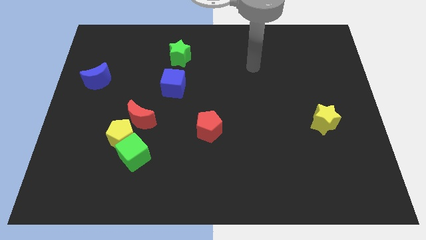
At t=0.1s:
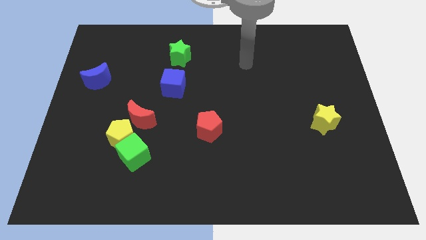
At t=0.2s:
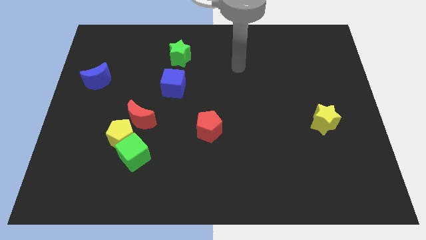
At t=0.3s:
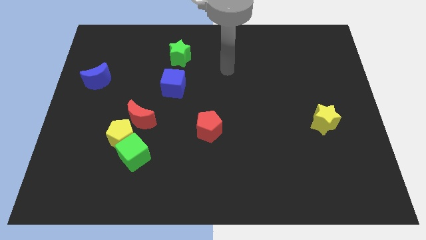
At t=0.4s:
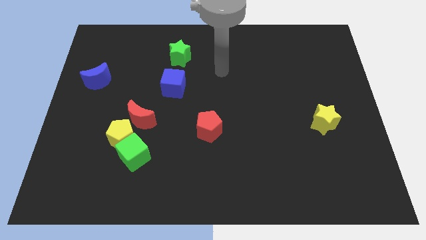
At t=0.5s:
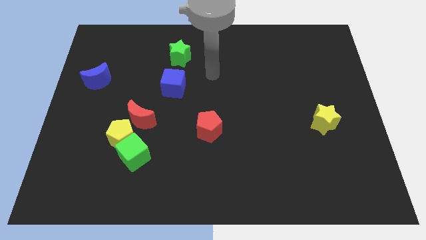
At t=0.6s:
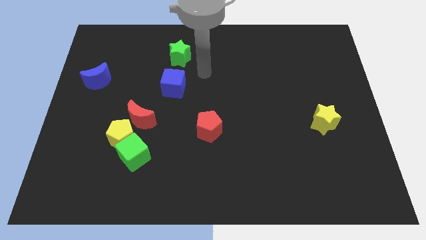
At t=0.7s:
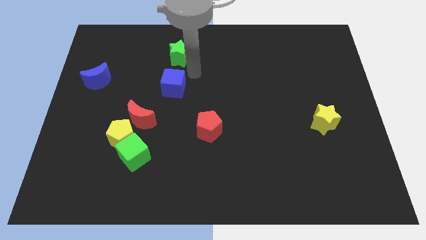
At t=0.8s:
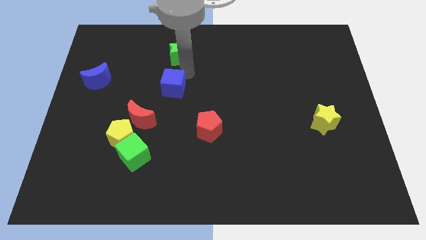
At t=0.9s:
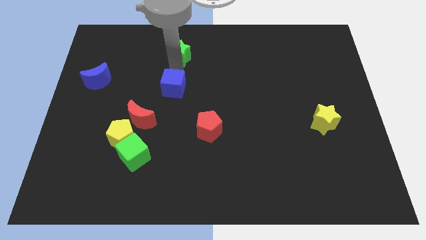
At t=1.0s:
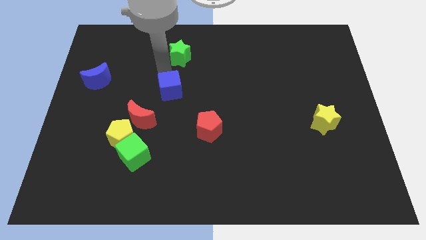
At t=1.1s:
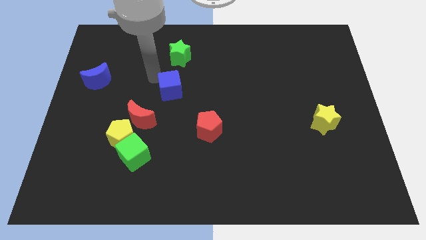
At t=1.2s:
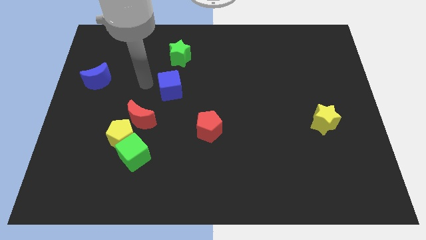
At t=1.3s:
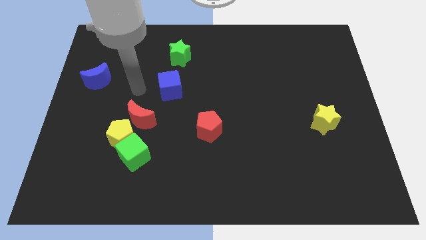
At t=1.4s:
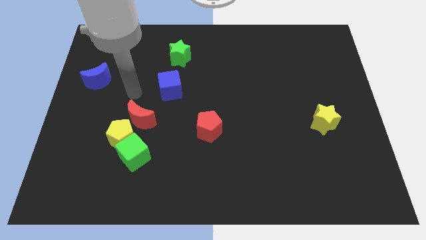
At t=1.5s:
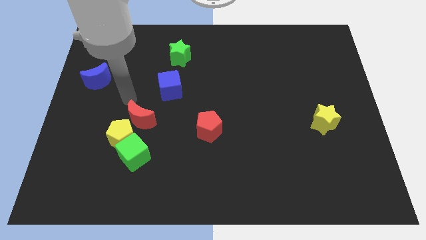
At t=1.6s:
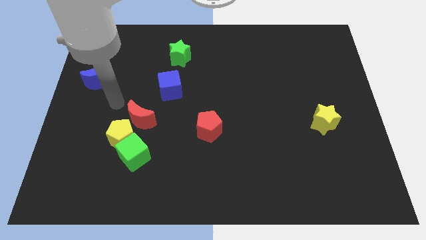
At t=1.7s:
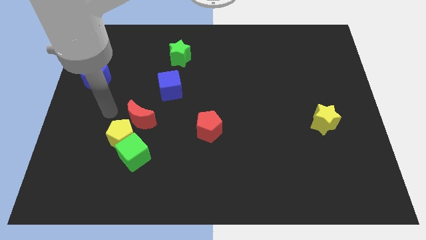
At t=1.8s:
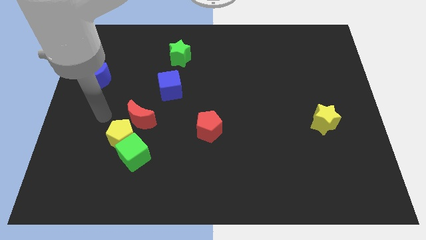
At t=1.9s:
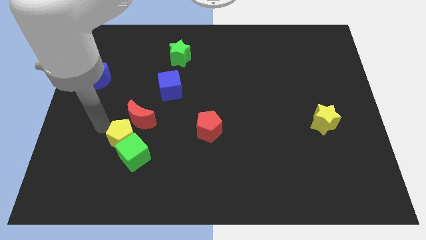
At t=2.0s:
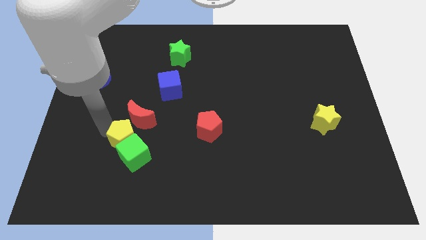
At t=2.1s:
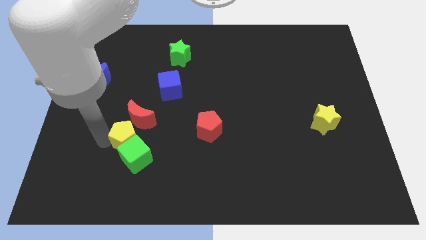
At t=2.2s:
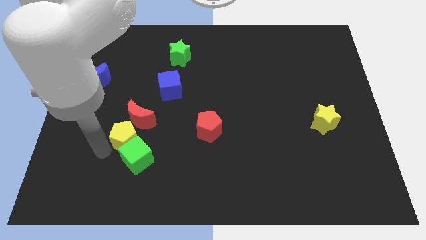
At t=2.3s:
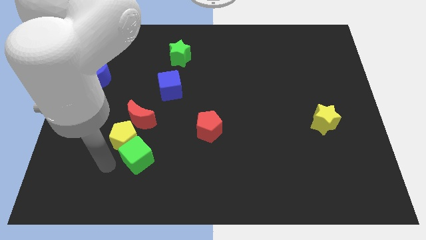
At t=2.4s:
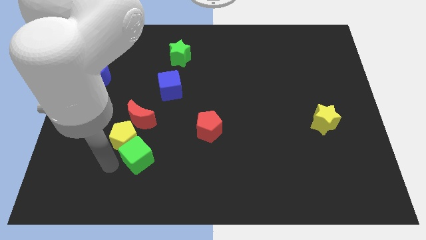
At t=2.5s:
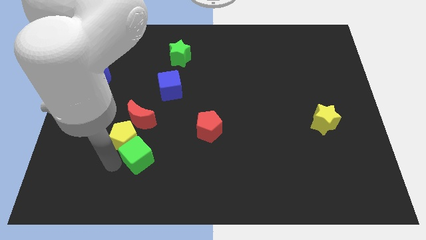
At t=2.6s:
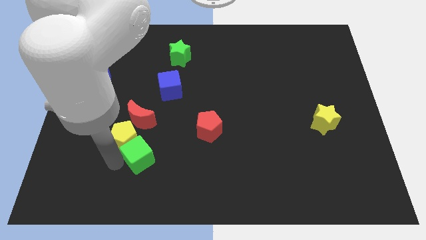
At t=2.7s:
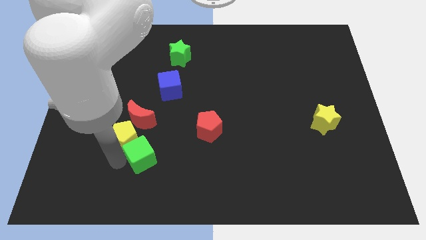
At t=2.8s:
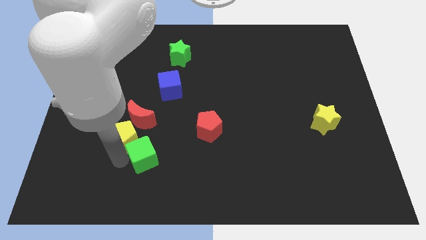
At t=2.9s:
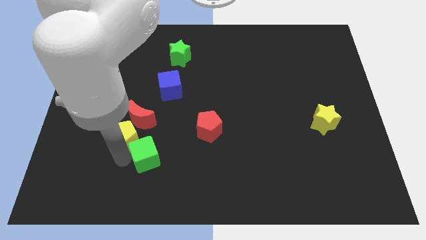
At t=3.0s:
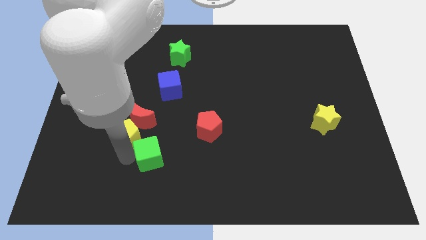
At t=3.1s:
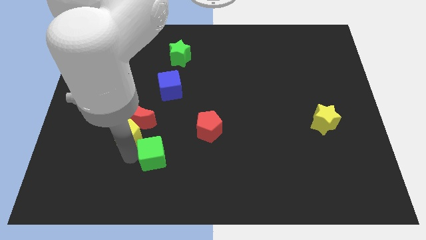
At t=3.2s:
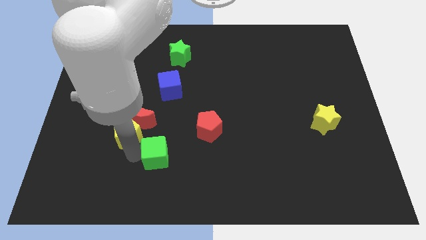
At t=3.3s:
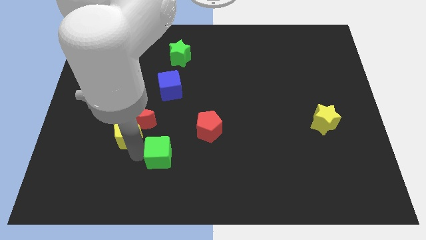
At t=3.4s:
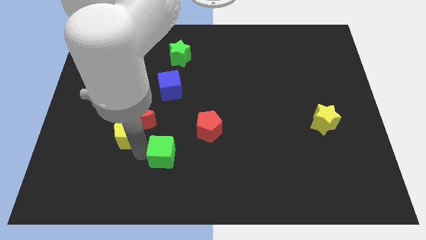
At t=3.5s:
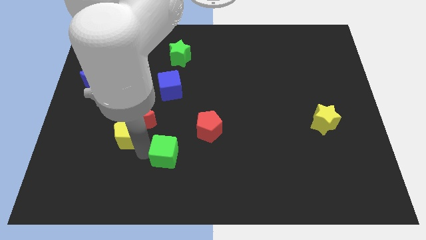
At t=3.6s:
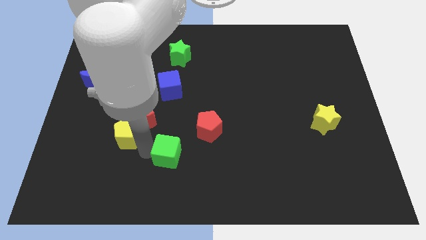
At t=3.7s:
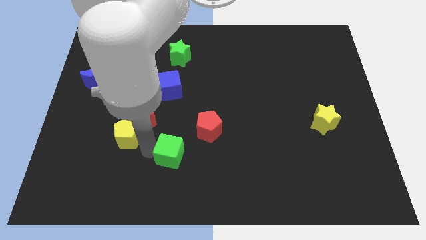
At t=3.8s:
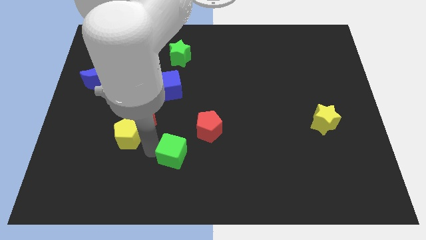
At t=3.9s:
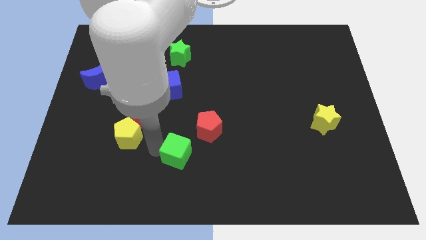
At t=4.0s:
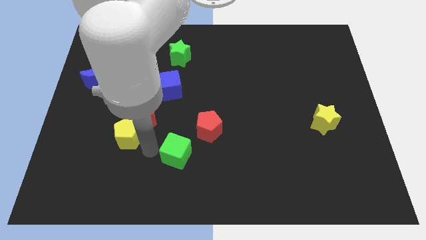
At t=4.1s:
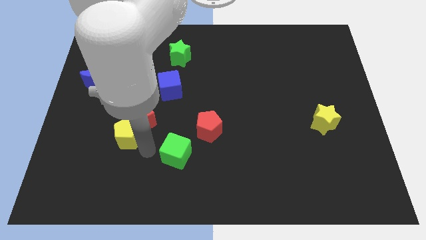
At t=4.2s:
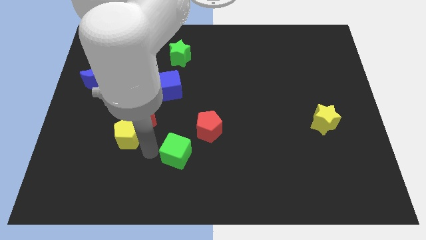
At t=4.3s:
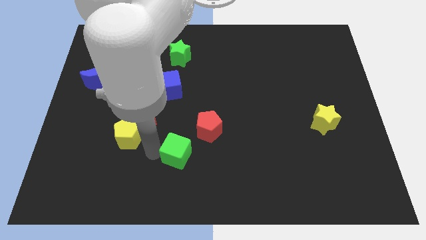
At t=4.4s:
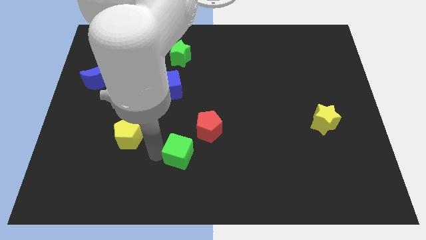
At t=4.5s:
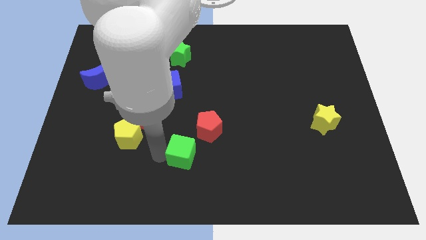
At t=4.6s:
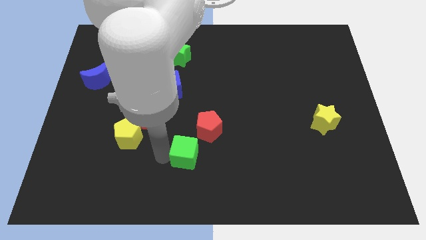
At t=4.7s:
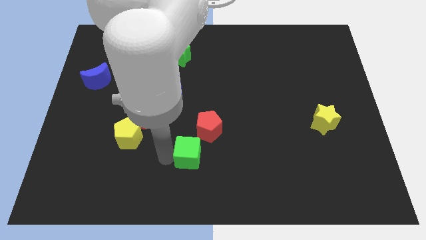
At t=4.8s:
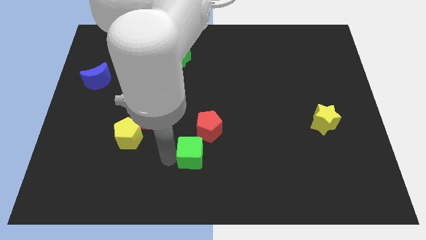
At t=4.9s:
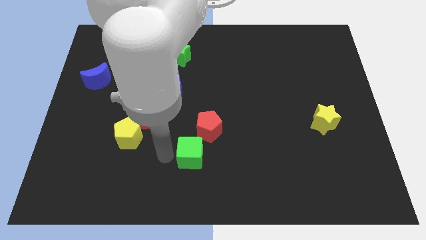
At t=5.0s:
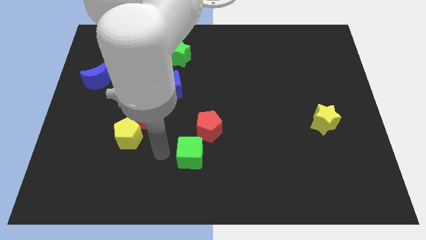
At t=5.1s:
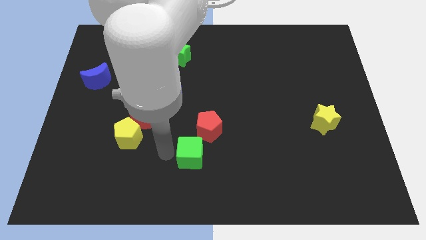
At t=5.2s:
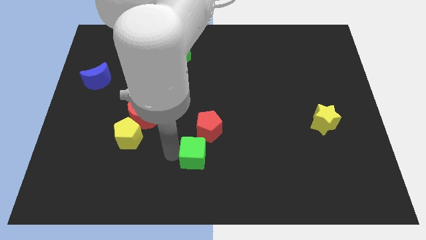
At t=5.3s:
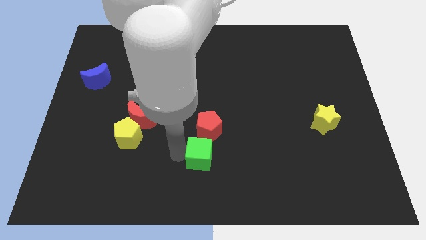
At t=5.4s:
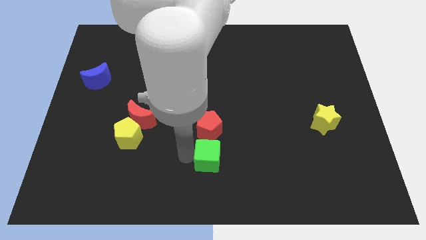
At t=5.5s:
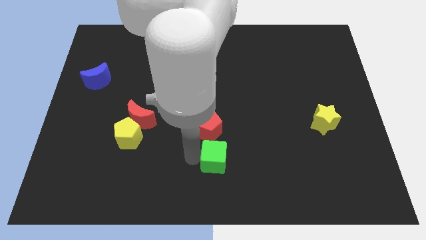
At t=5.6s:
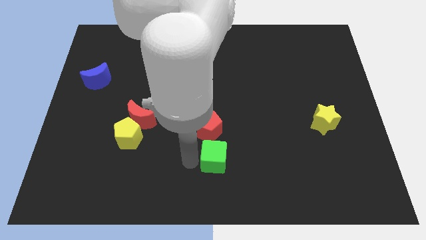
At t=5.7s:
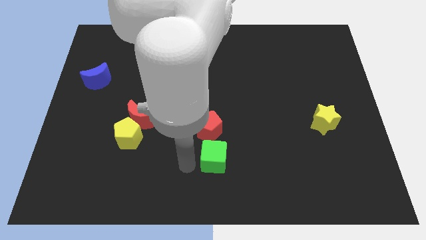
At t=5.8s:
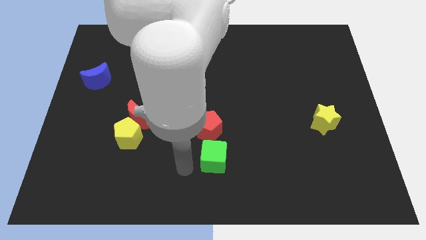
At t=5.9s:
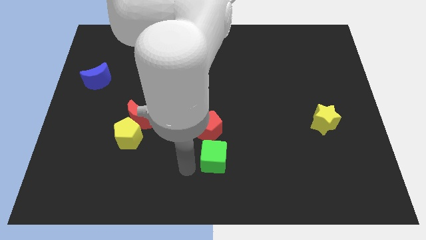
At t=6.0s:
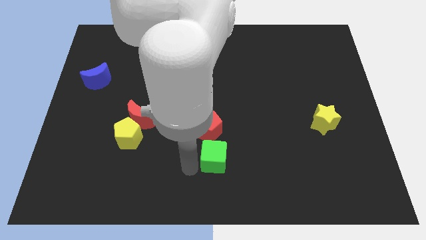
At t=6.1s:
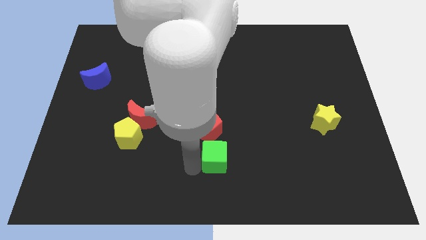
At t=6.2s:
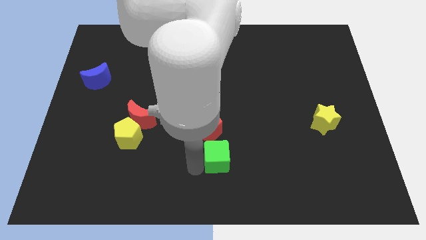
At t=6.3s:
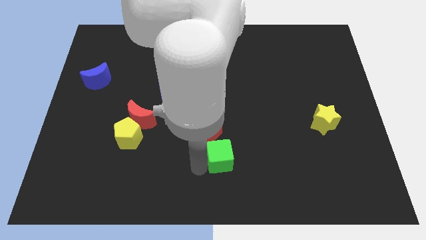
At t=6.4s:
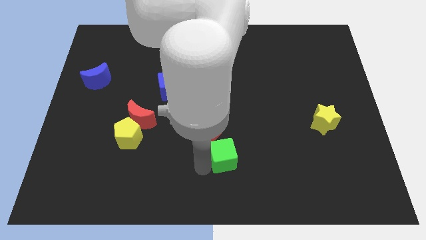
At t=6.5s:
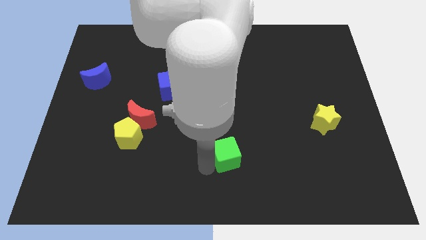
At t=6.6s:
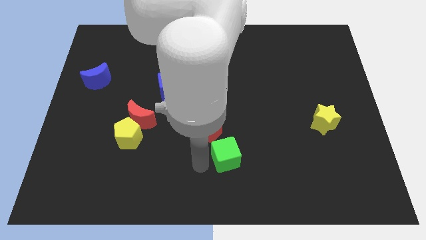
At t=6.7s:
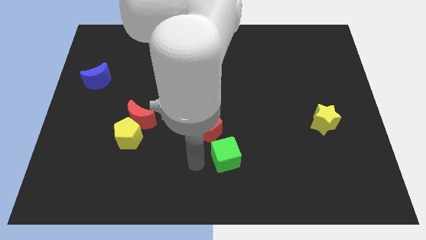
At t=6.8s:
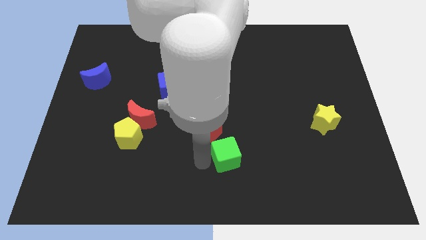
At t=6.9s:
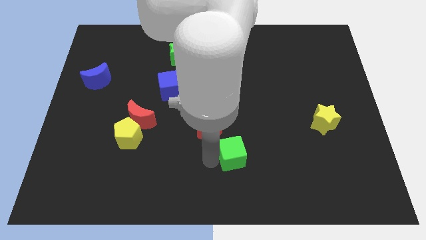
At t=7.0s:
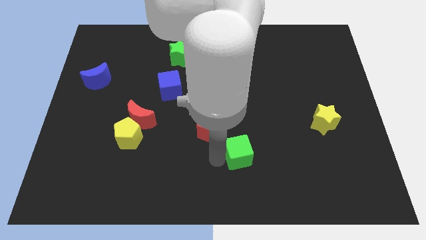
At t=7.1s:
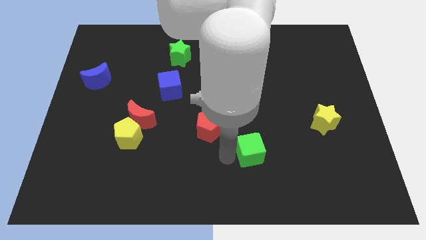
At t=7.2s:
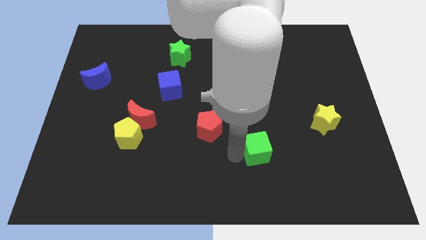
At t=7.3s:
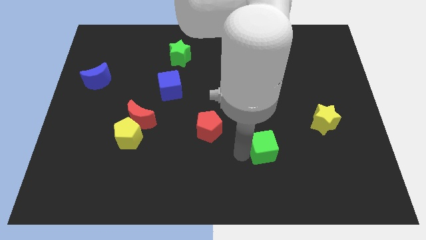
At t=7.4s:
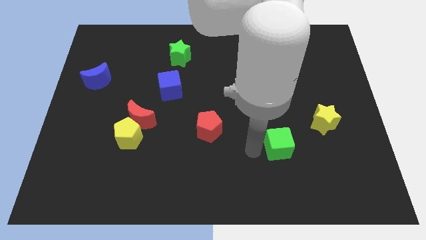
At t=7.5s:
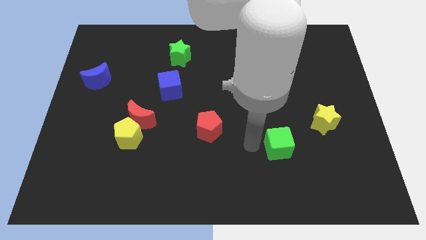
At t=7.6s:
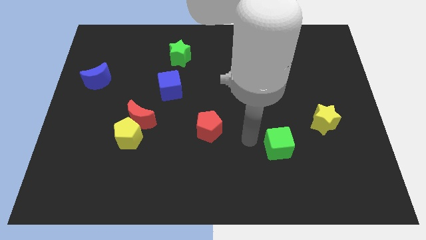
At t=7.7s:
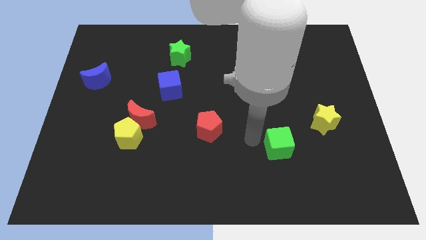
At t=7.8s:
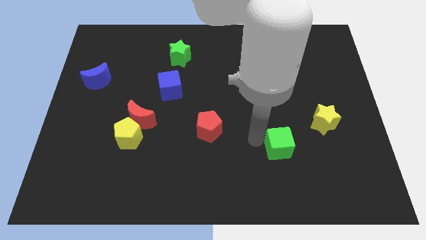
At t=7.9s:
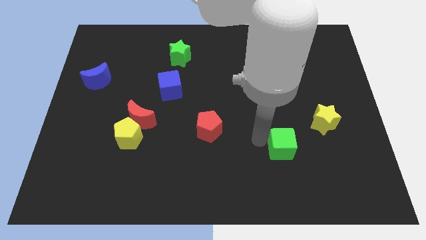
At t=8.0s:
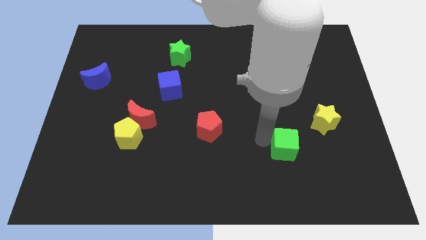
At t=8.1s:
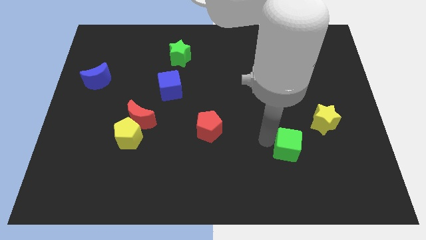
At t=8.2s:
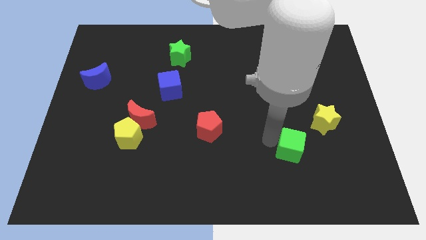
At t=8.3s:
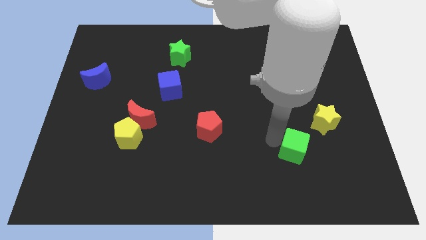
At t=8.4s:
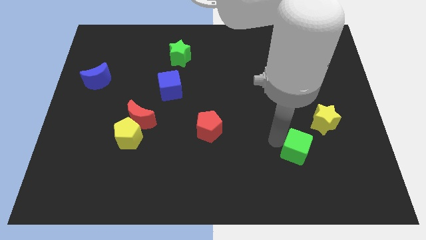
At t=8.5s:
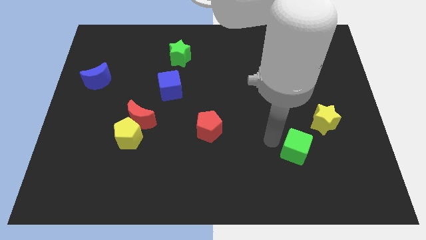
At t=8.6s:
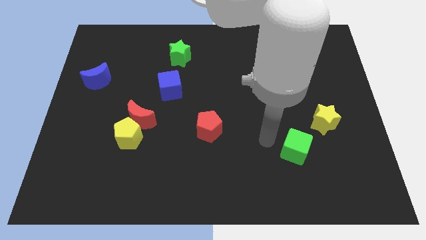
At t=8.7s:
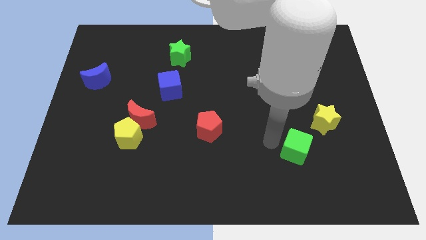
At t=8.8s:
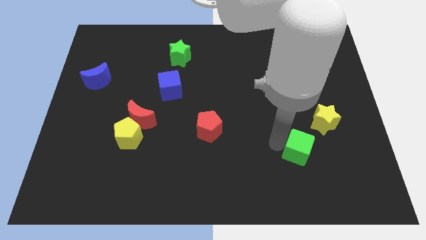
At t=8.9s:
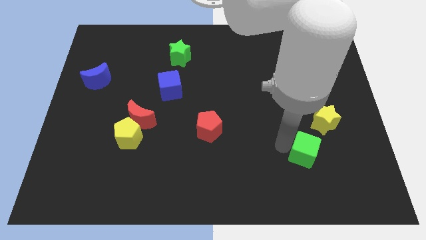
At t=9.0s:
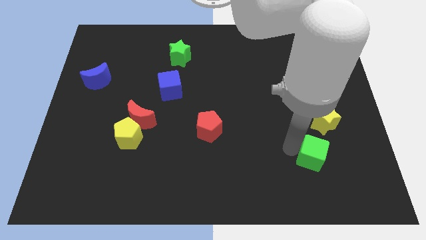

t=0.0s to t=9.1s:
put the green cube to the bottom of the yellow star
